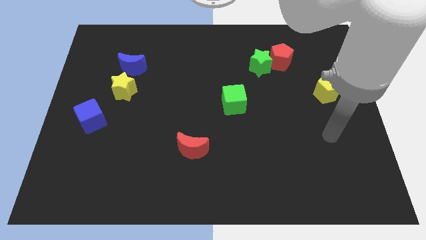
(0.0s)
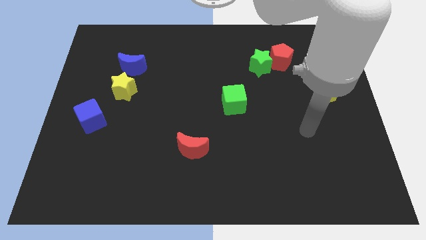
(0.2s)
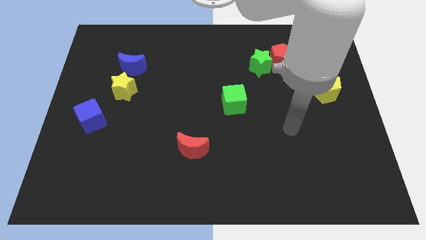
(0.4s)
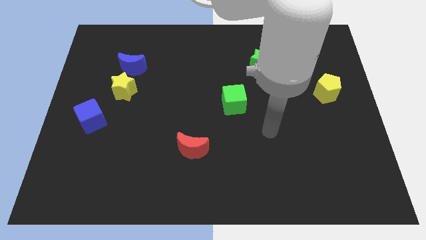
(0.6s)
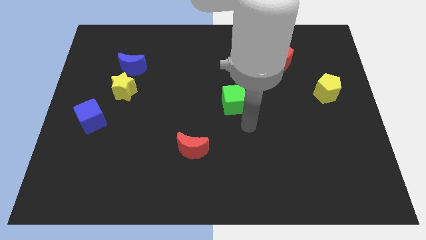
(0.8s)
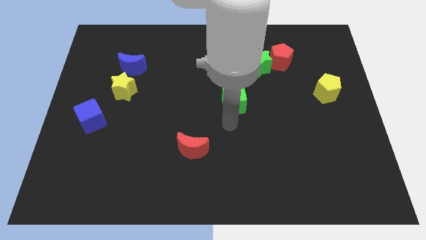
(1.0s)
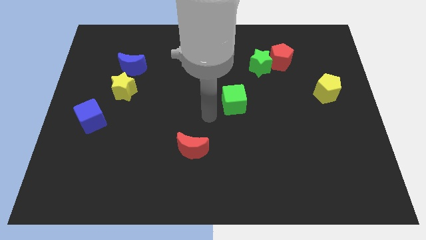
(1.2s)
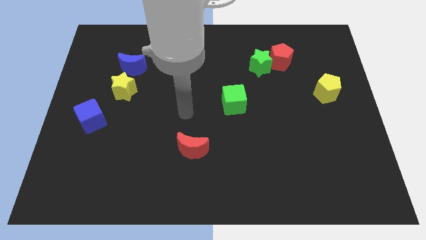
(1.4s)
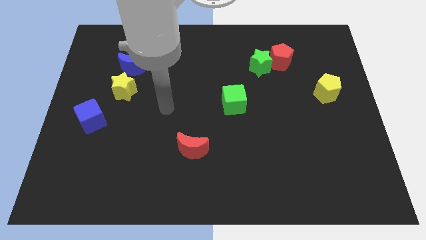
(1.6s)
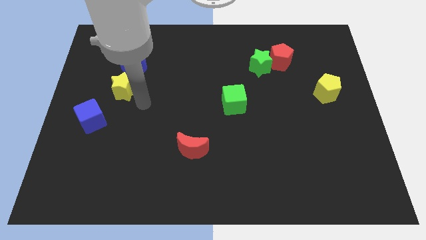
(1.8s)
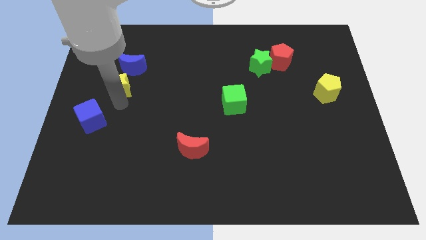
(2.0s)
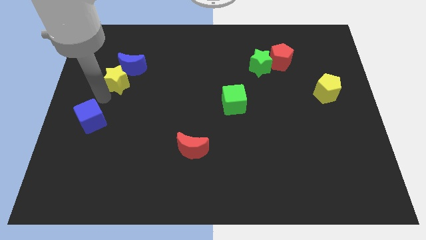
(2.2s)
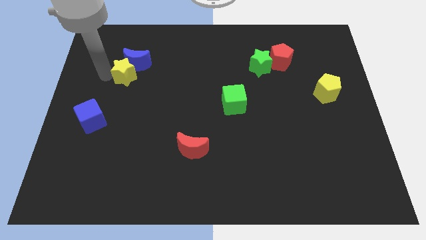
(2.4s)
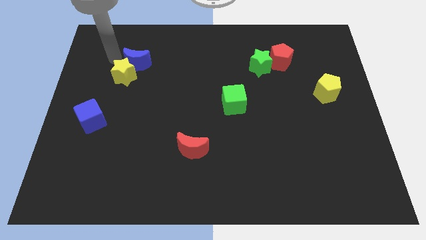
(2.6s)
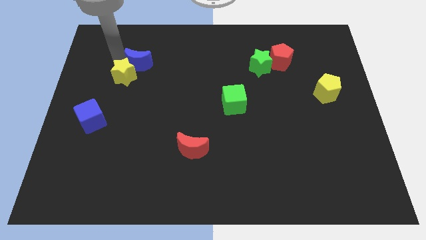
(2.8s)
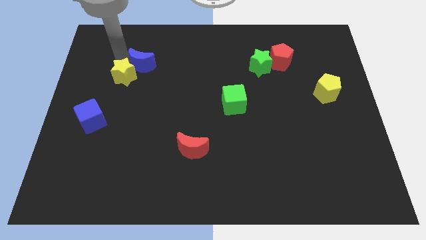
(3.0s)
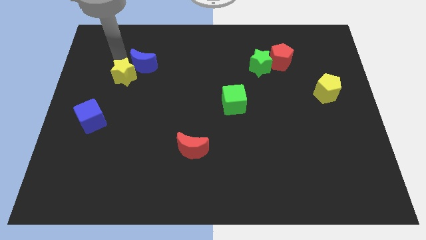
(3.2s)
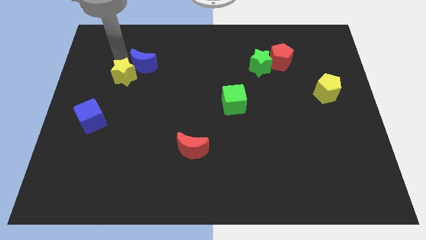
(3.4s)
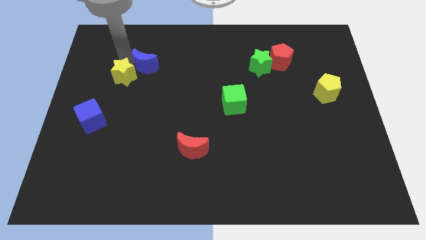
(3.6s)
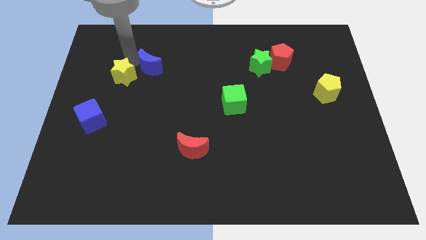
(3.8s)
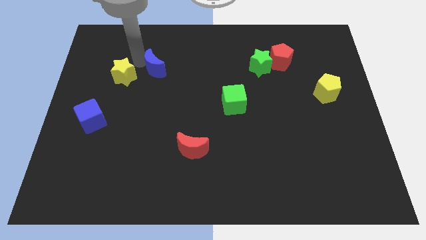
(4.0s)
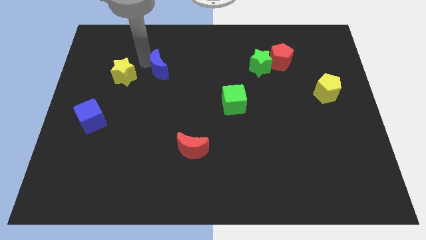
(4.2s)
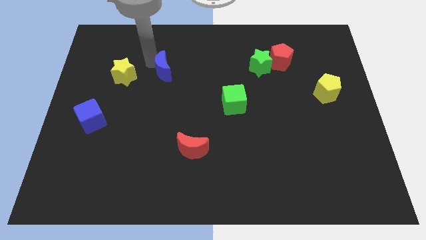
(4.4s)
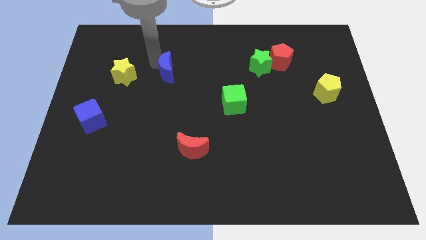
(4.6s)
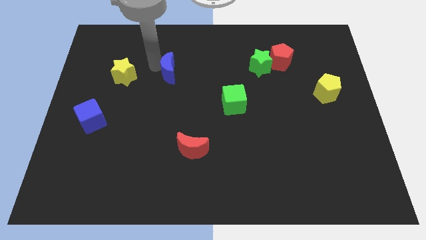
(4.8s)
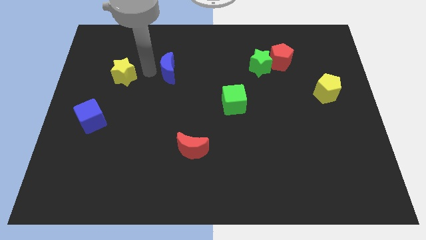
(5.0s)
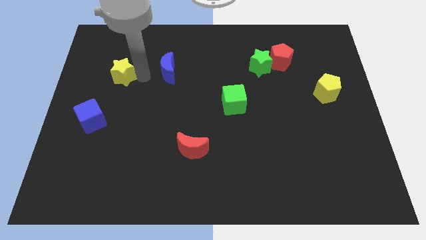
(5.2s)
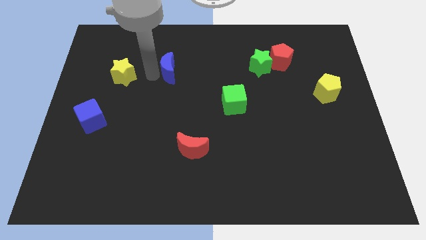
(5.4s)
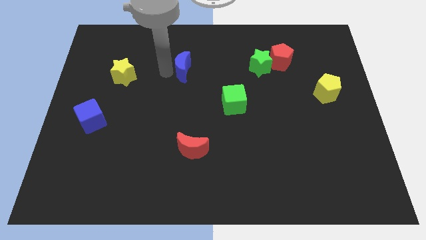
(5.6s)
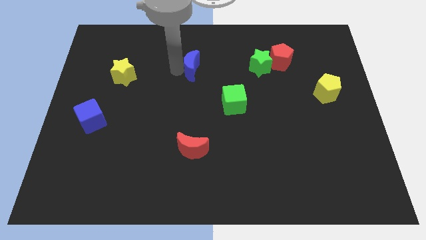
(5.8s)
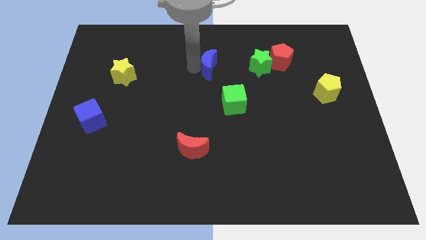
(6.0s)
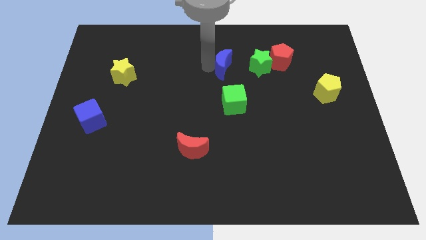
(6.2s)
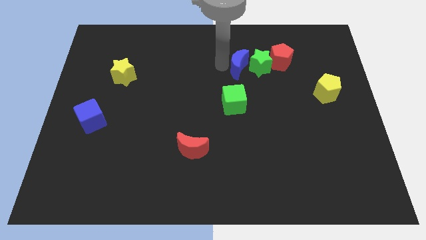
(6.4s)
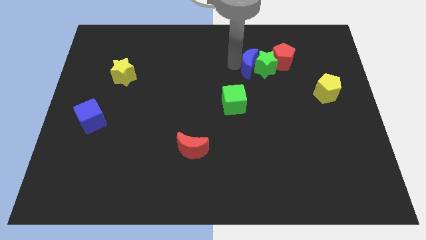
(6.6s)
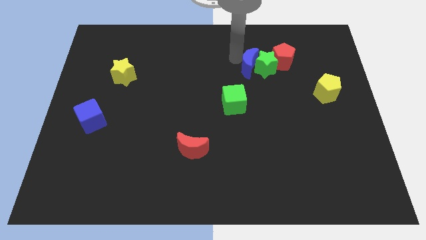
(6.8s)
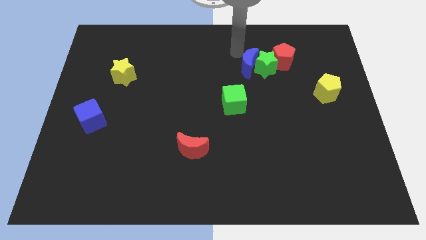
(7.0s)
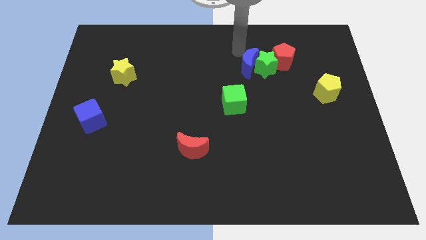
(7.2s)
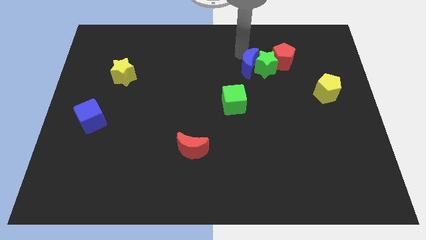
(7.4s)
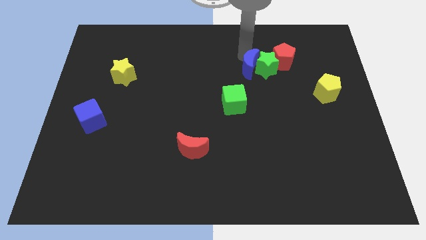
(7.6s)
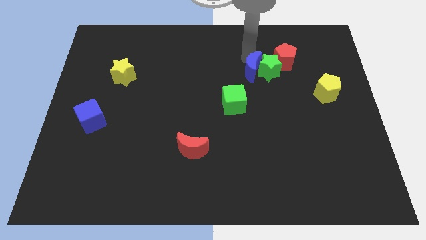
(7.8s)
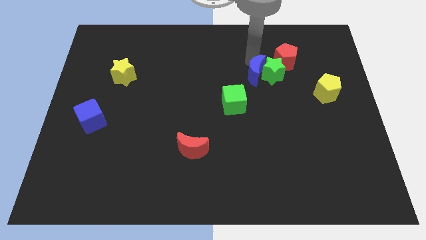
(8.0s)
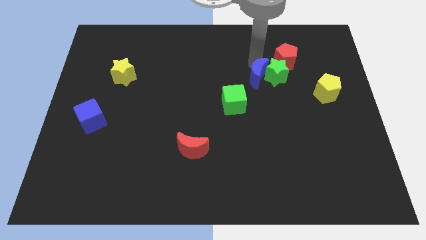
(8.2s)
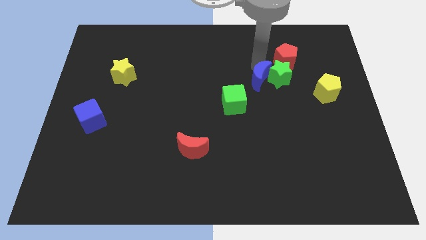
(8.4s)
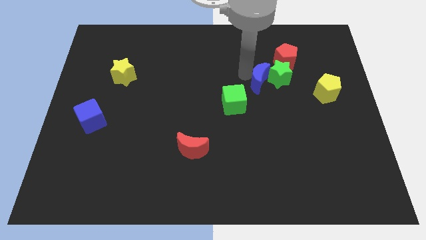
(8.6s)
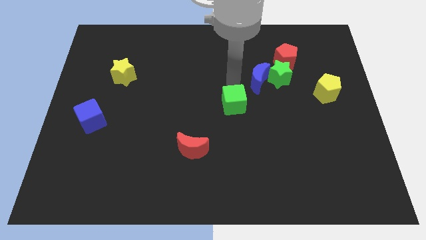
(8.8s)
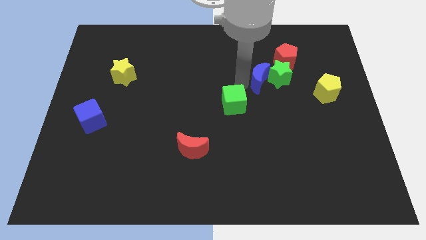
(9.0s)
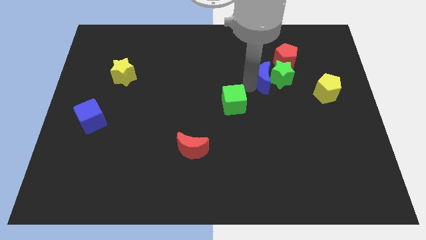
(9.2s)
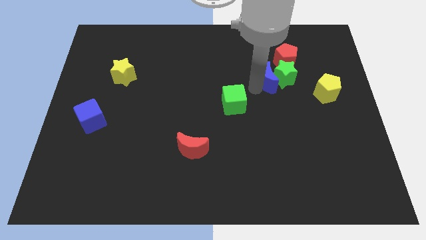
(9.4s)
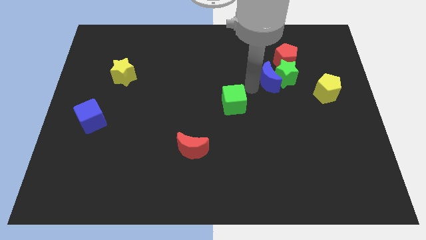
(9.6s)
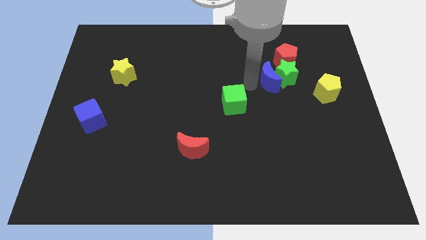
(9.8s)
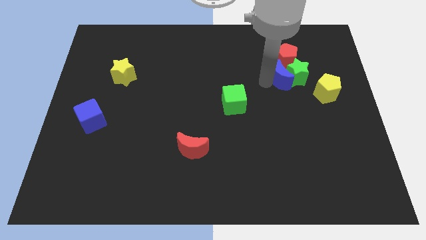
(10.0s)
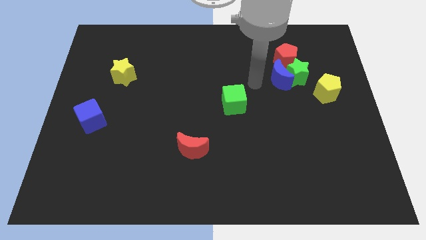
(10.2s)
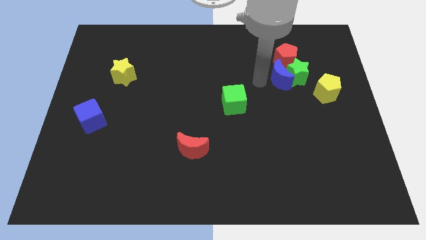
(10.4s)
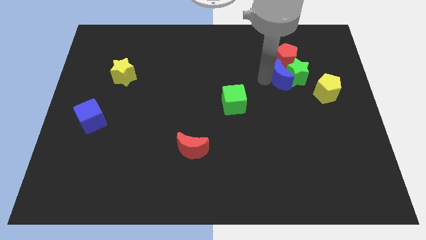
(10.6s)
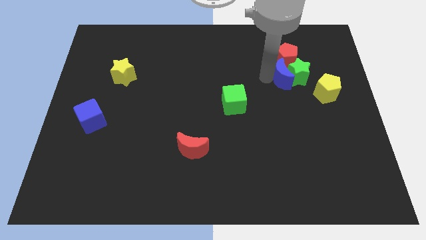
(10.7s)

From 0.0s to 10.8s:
push the blue moon to the top left side of the yellow pentagon
